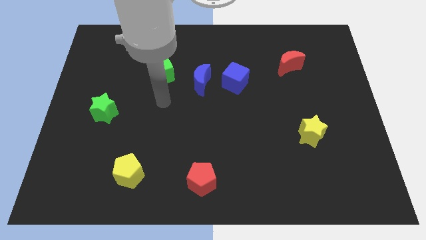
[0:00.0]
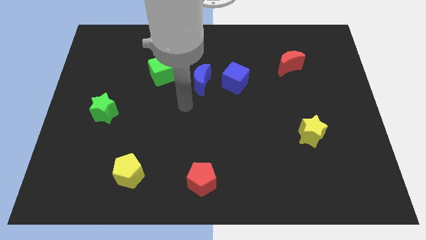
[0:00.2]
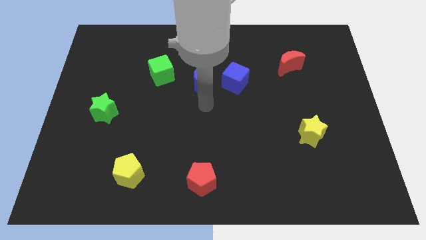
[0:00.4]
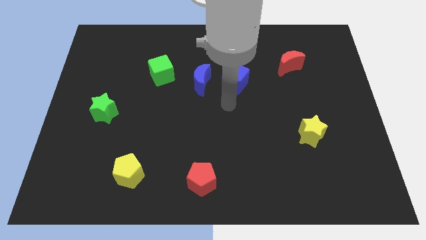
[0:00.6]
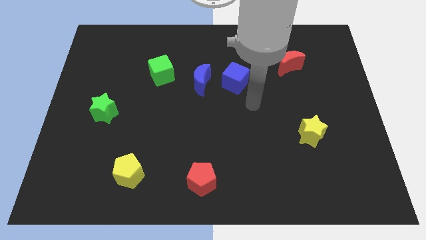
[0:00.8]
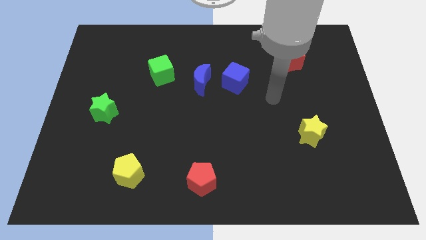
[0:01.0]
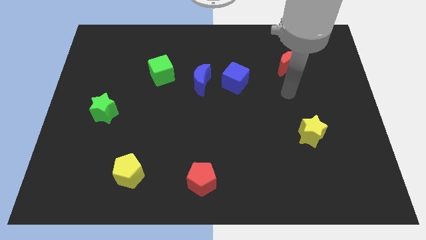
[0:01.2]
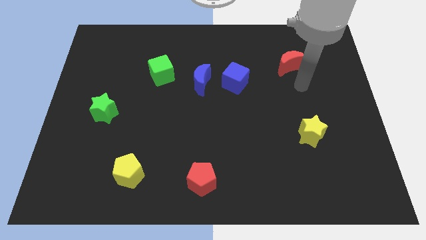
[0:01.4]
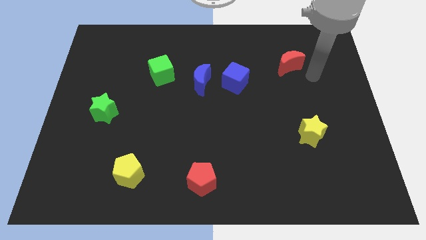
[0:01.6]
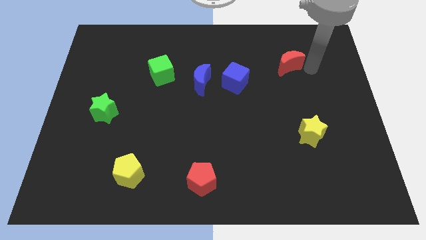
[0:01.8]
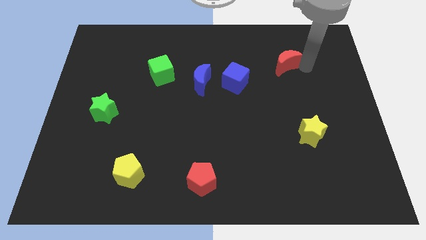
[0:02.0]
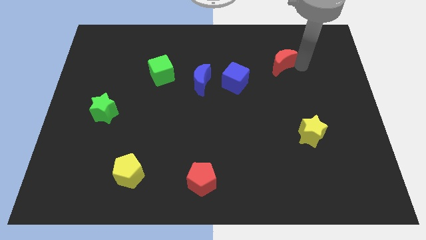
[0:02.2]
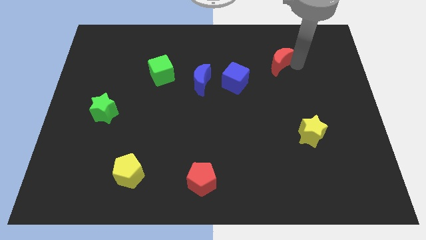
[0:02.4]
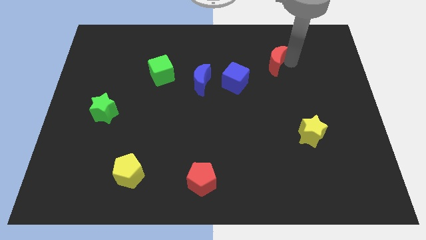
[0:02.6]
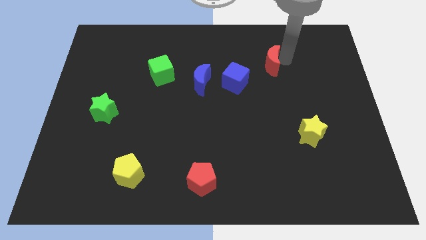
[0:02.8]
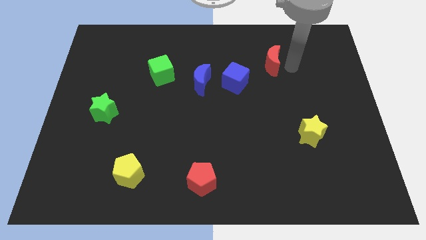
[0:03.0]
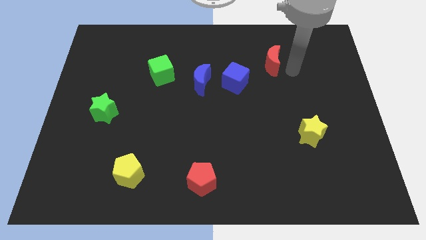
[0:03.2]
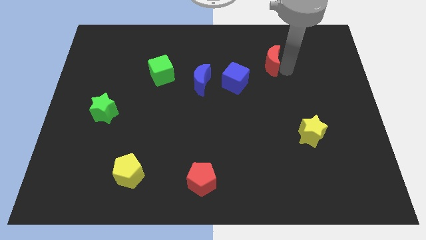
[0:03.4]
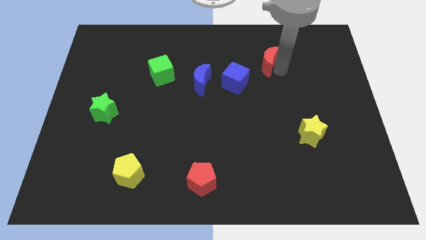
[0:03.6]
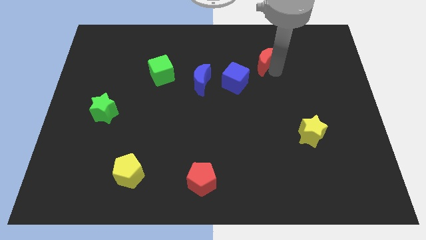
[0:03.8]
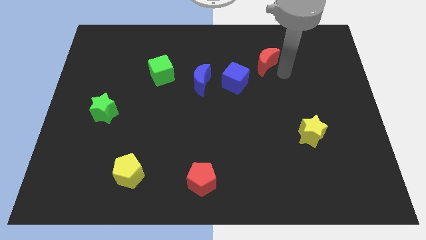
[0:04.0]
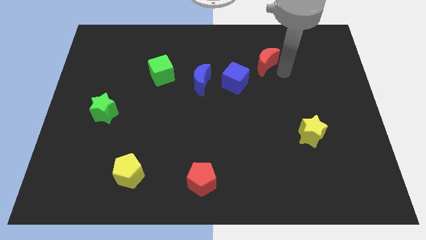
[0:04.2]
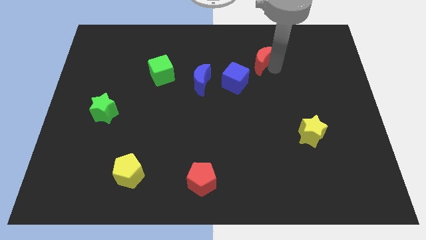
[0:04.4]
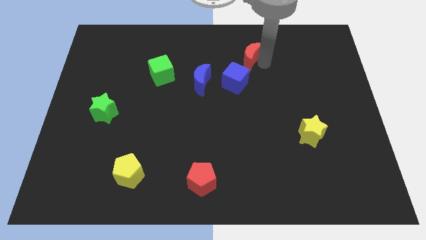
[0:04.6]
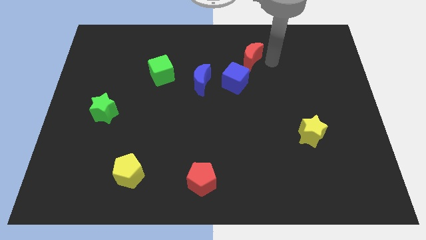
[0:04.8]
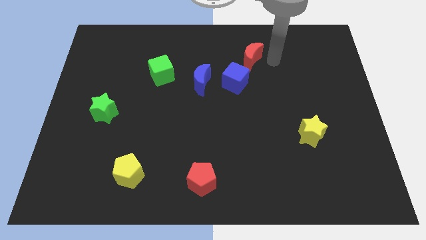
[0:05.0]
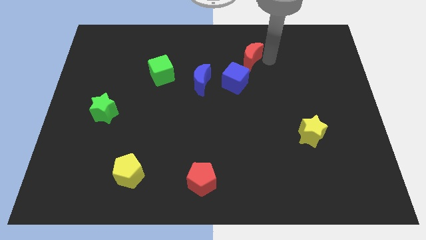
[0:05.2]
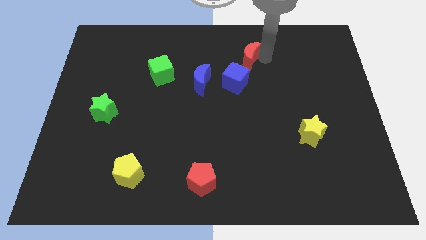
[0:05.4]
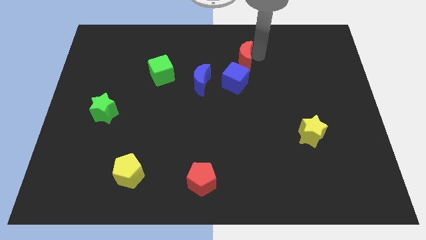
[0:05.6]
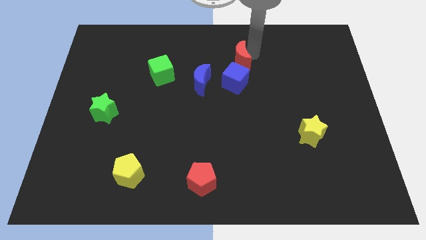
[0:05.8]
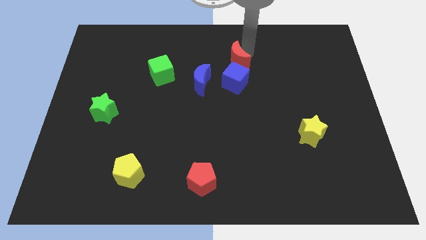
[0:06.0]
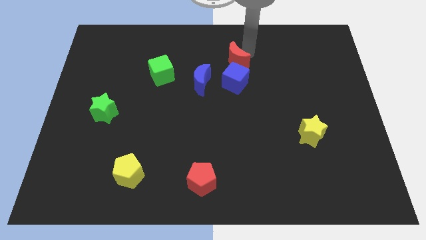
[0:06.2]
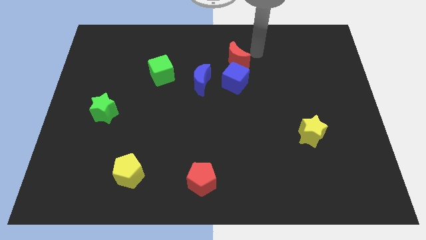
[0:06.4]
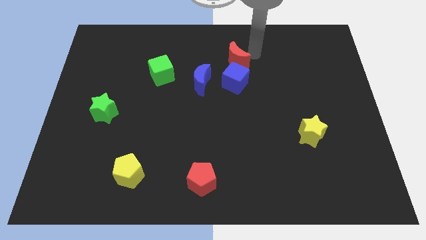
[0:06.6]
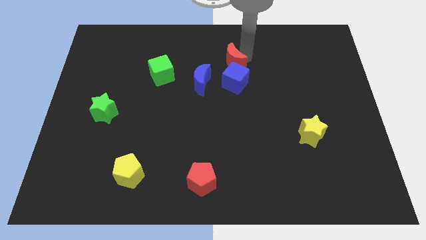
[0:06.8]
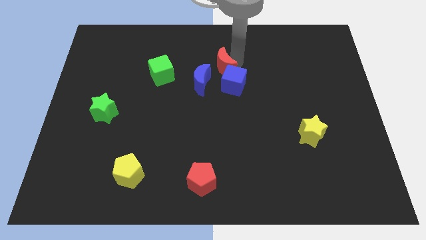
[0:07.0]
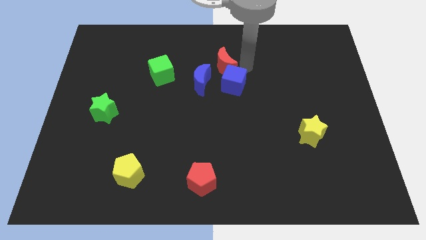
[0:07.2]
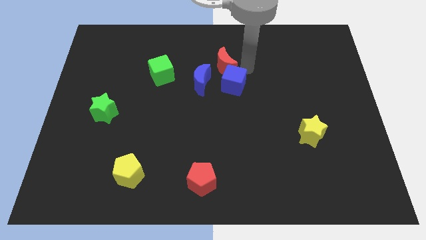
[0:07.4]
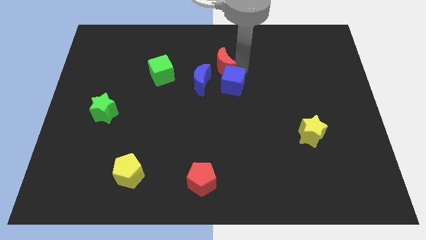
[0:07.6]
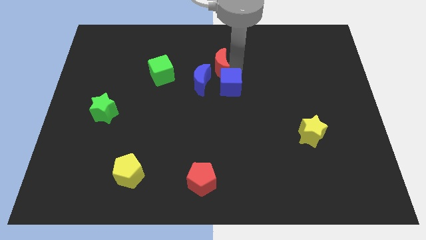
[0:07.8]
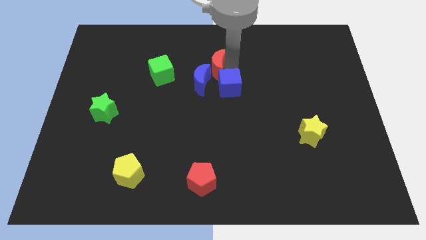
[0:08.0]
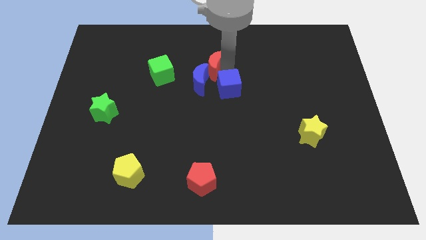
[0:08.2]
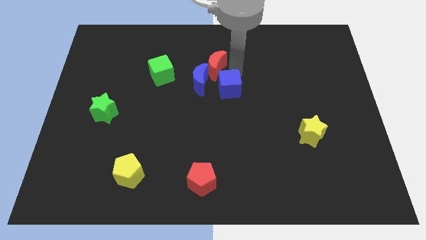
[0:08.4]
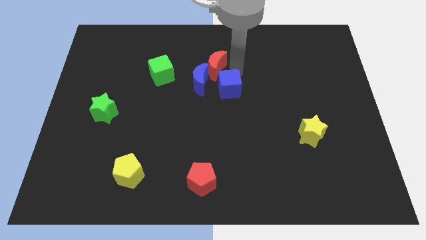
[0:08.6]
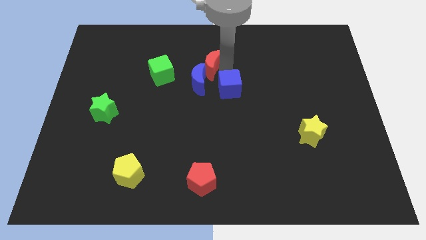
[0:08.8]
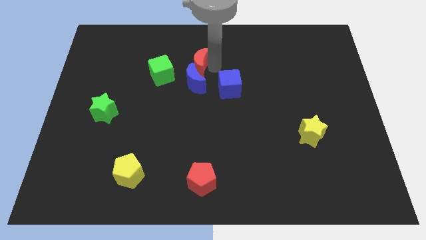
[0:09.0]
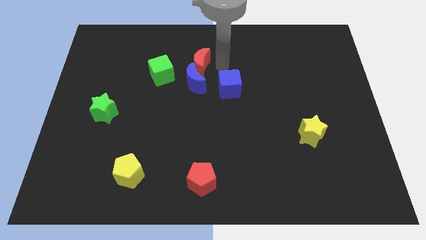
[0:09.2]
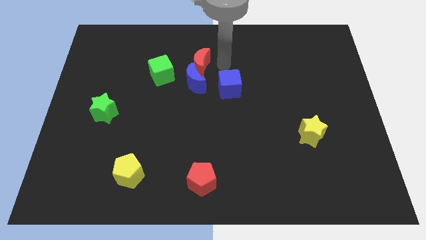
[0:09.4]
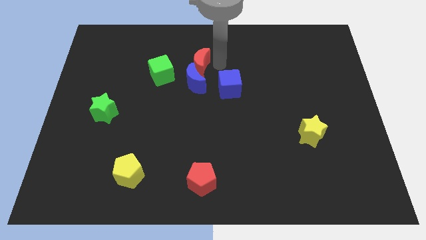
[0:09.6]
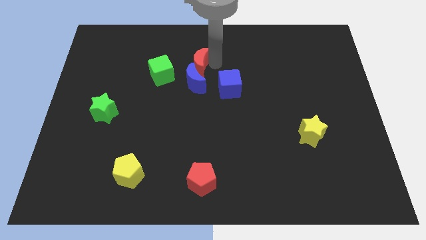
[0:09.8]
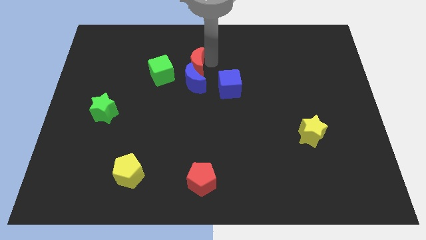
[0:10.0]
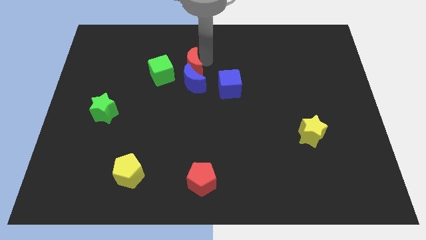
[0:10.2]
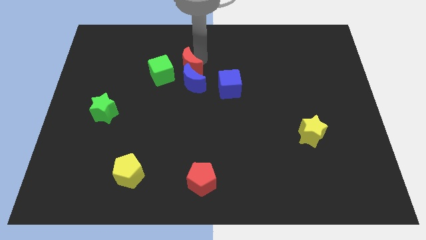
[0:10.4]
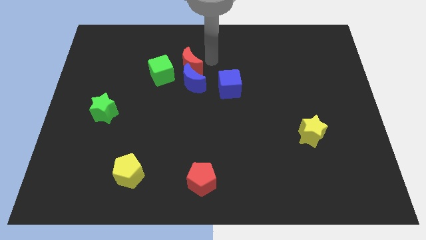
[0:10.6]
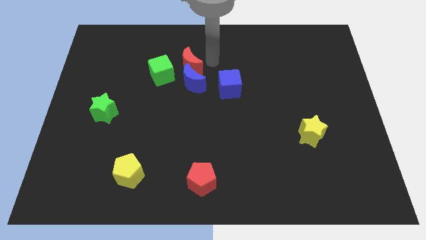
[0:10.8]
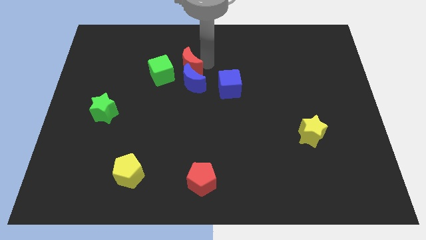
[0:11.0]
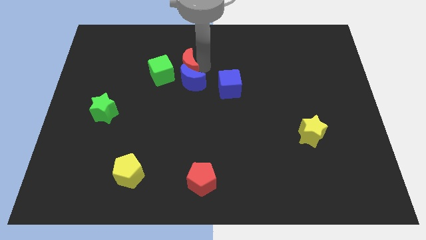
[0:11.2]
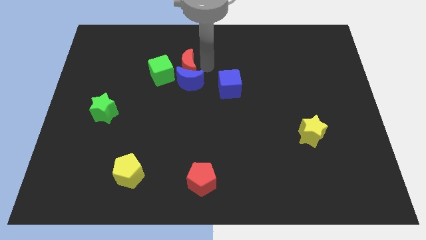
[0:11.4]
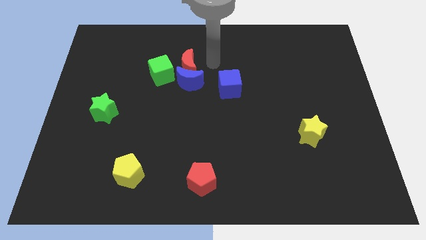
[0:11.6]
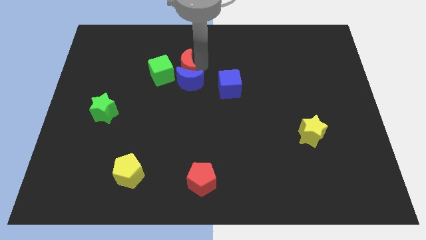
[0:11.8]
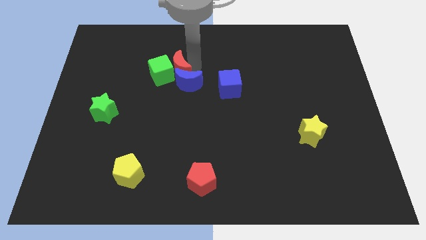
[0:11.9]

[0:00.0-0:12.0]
put the red moon next to the green cube
